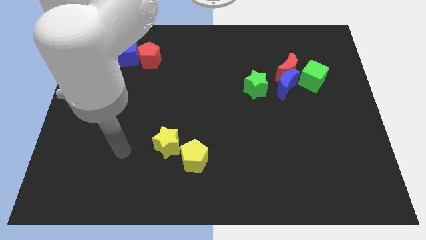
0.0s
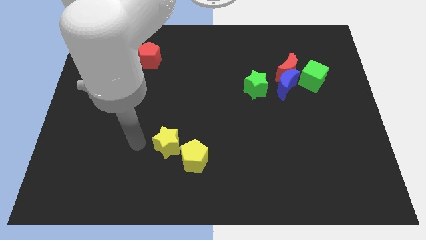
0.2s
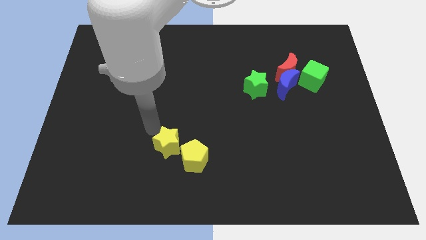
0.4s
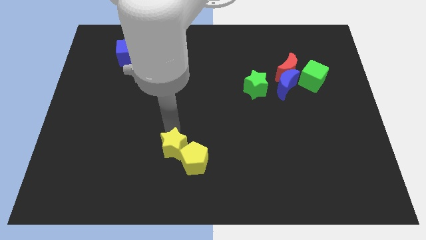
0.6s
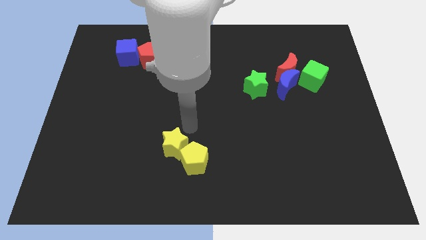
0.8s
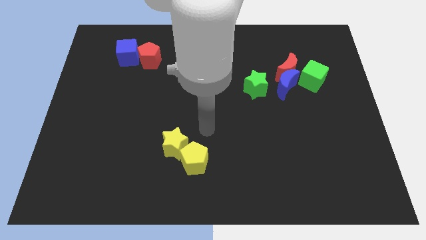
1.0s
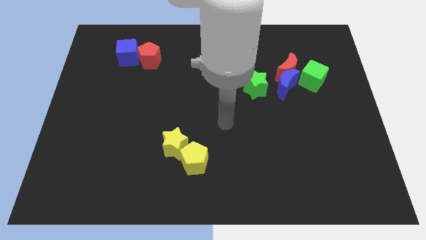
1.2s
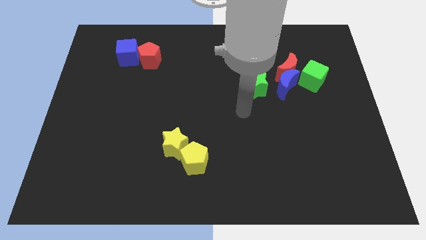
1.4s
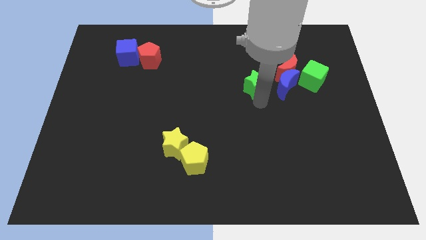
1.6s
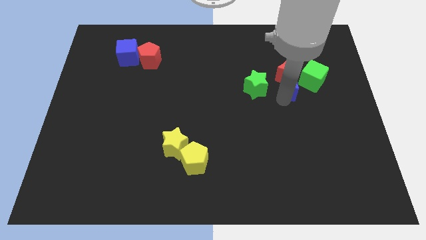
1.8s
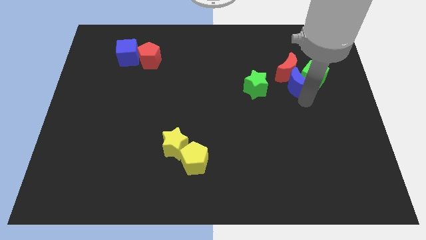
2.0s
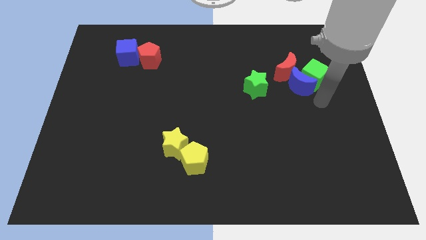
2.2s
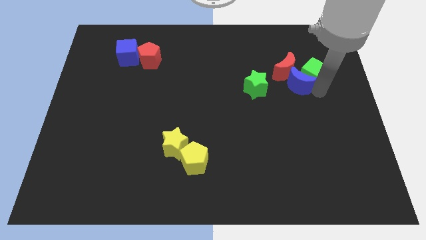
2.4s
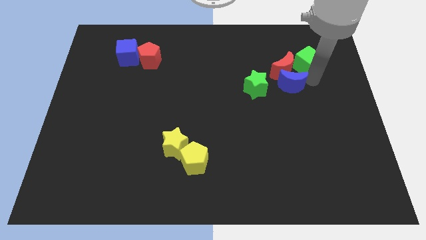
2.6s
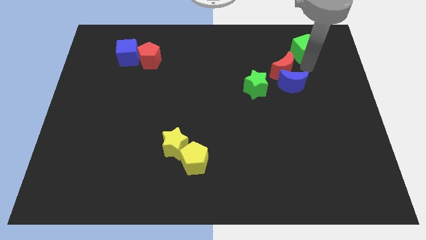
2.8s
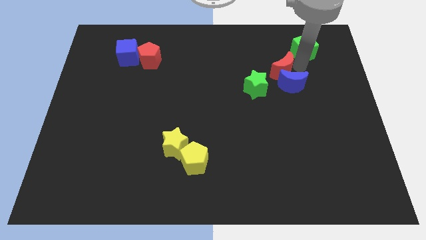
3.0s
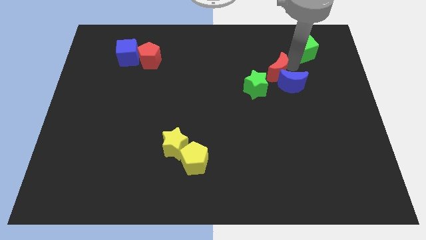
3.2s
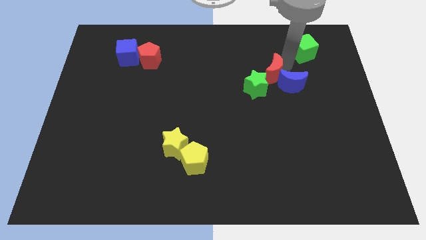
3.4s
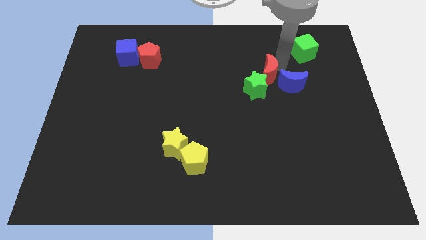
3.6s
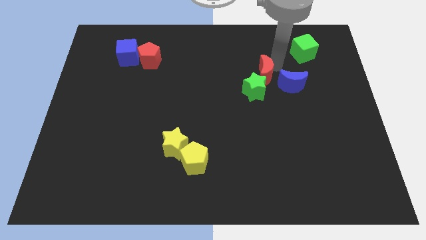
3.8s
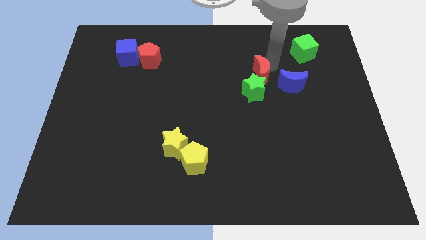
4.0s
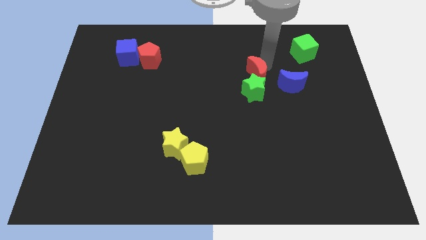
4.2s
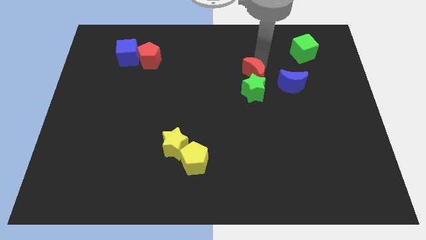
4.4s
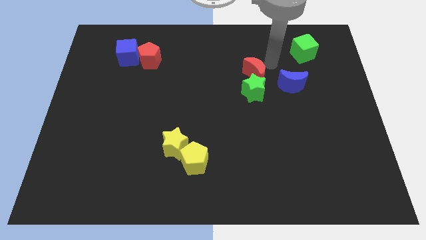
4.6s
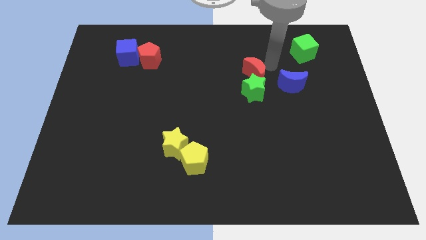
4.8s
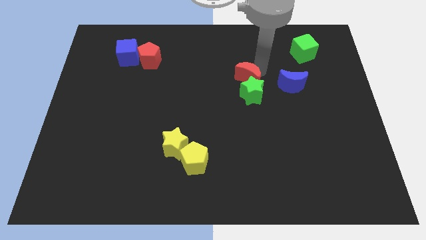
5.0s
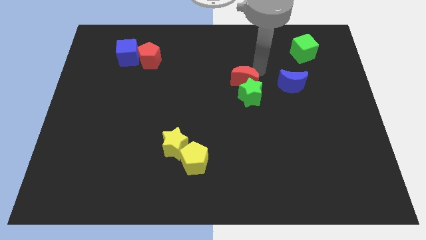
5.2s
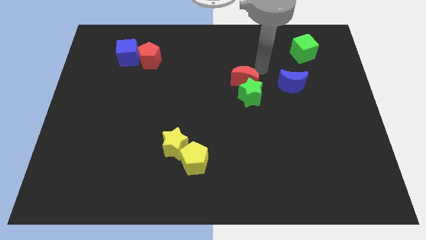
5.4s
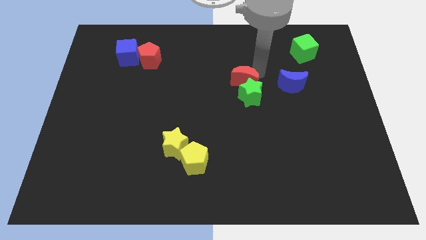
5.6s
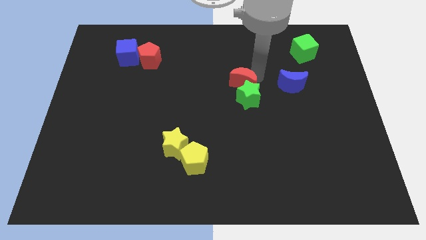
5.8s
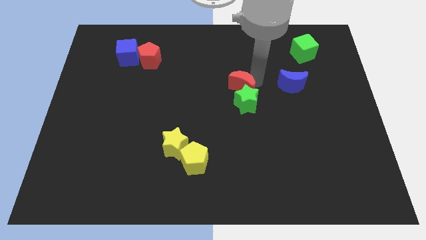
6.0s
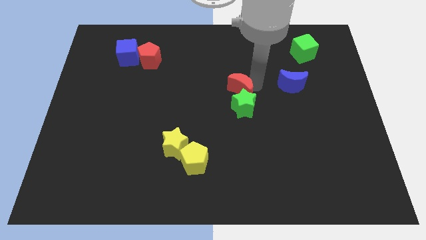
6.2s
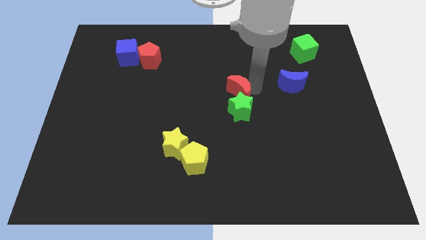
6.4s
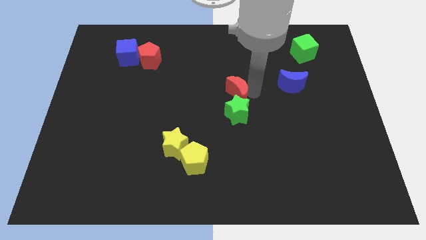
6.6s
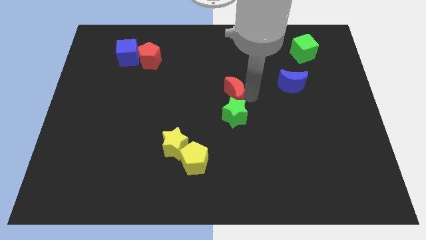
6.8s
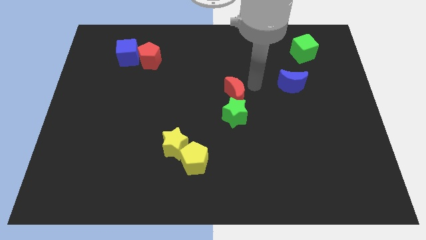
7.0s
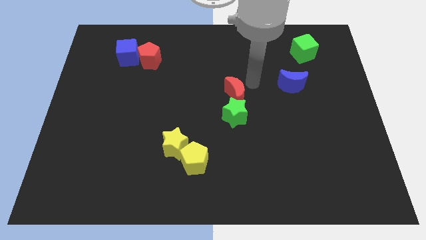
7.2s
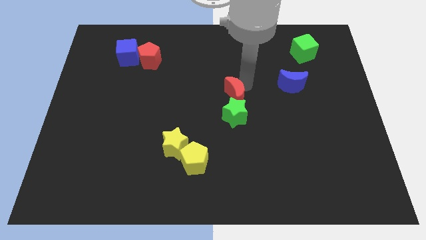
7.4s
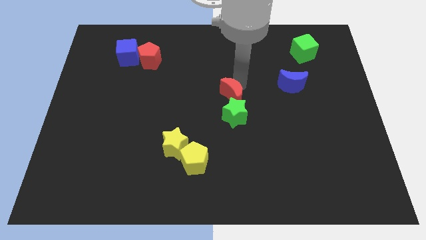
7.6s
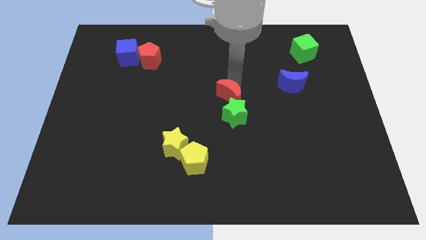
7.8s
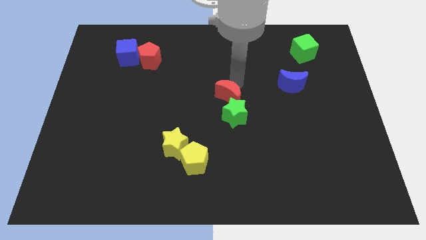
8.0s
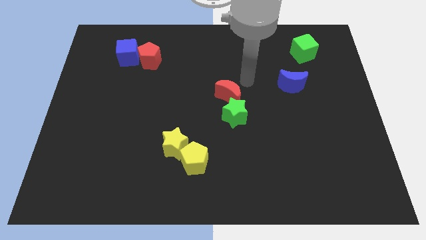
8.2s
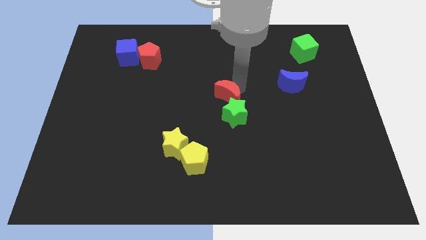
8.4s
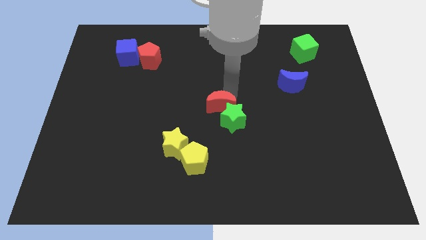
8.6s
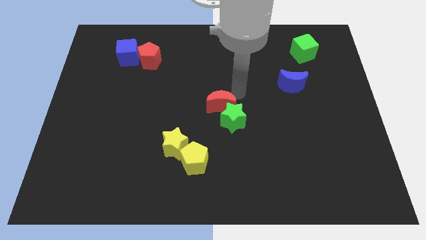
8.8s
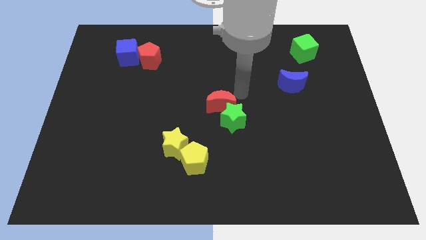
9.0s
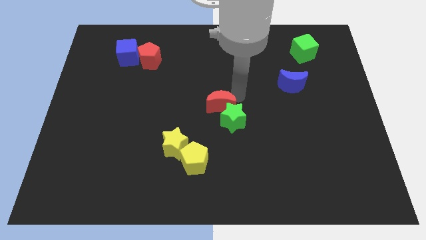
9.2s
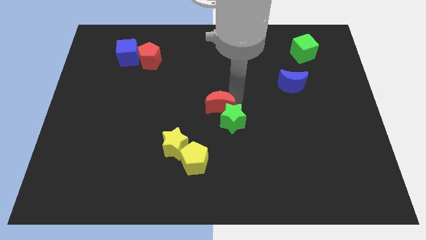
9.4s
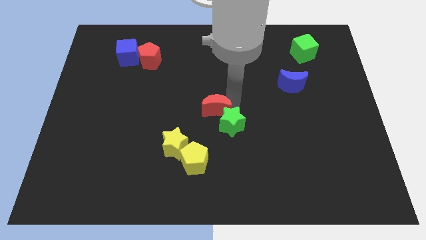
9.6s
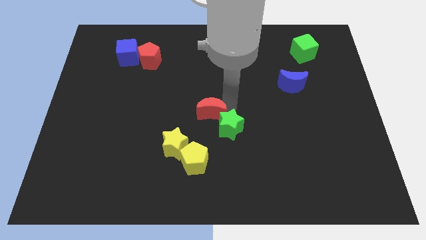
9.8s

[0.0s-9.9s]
move the red moon to the top right of the yellow star

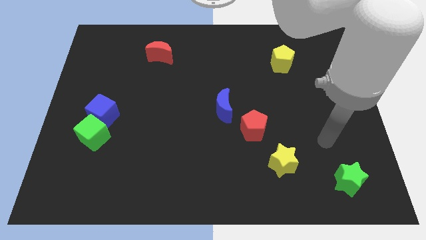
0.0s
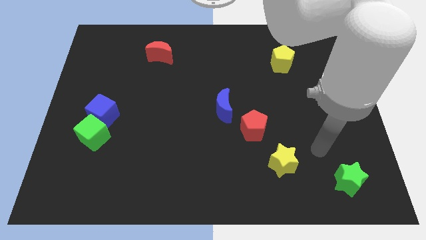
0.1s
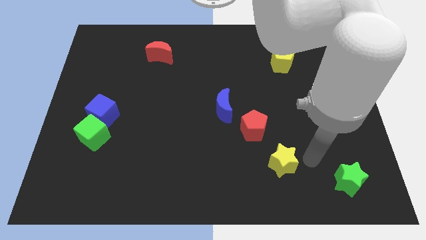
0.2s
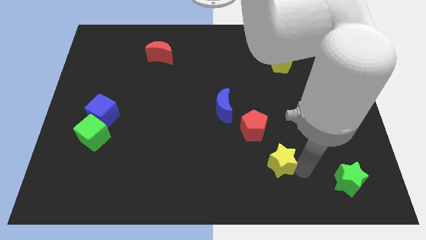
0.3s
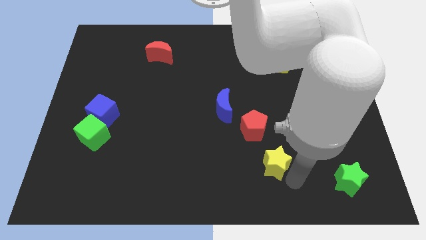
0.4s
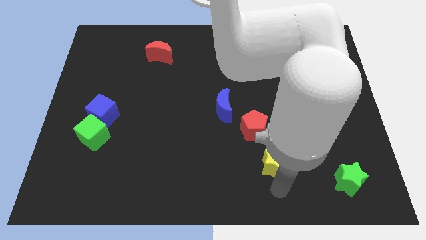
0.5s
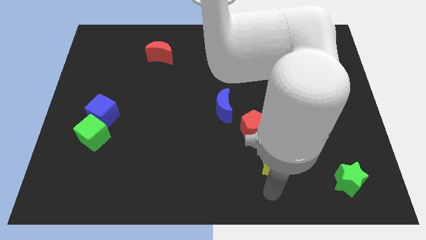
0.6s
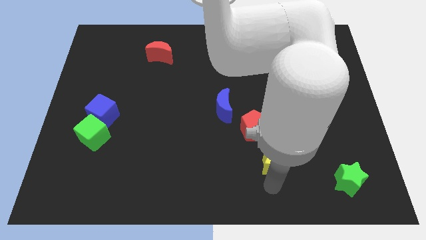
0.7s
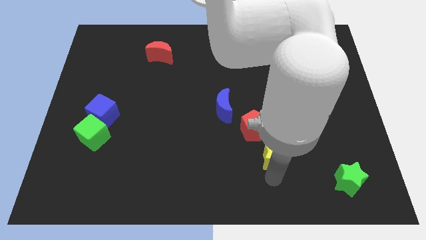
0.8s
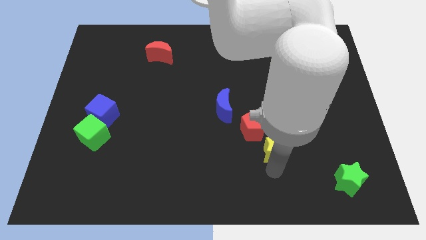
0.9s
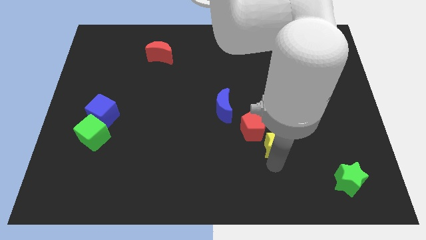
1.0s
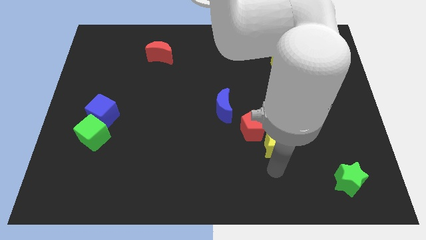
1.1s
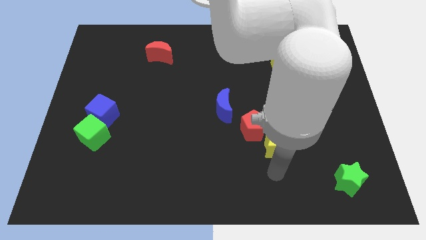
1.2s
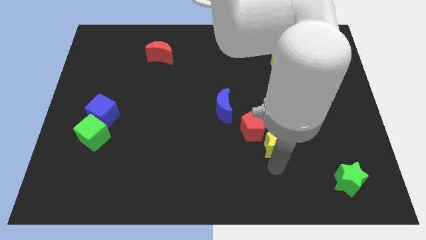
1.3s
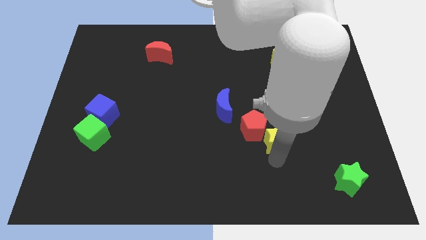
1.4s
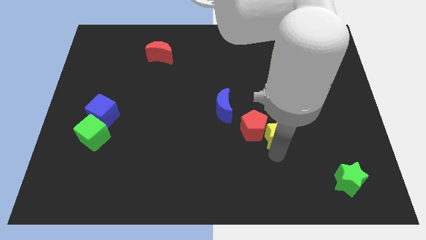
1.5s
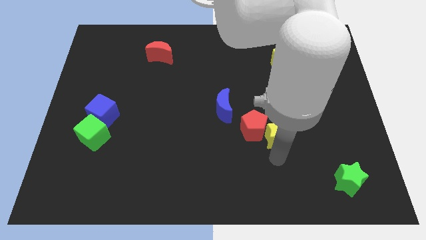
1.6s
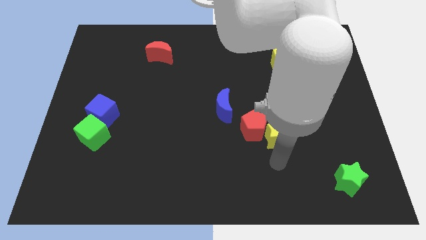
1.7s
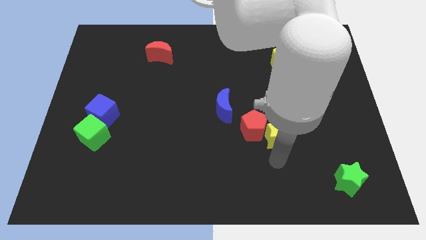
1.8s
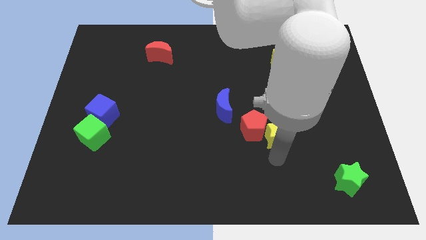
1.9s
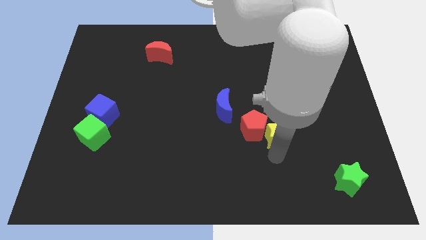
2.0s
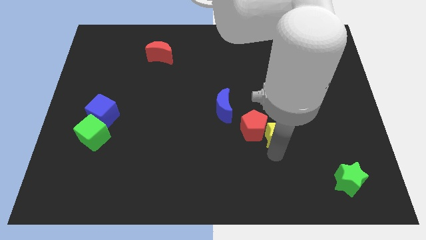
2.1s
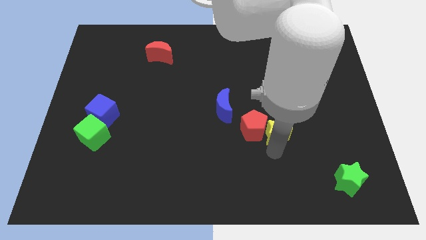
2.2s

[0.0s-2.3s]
push the yellow star diagonally up and to the right of the red pentagon
